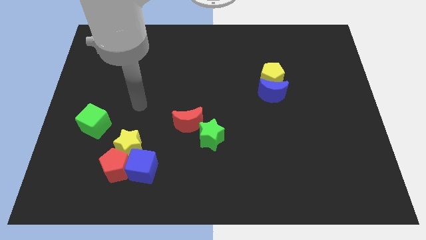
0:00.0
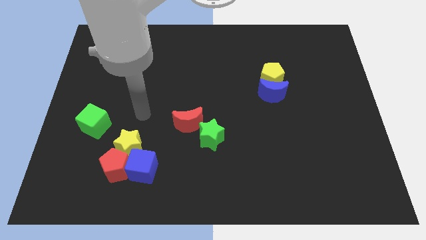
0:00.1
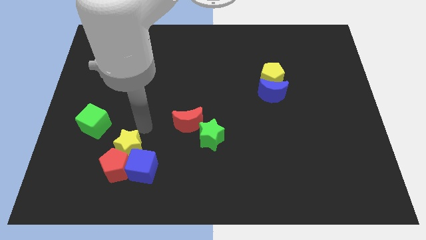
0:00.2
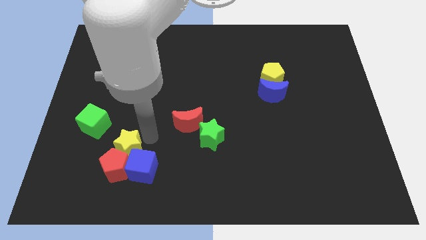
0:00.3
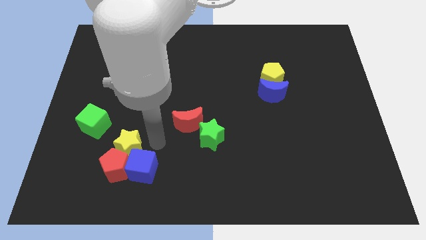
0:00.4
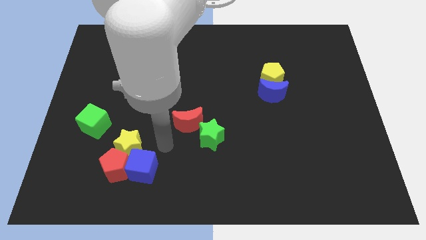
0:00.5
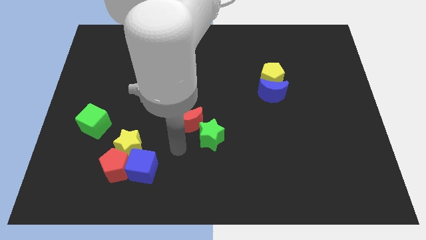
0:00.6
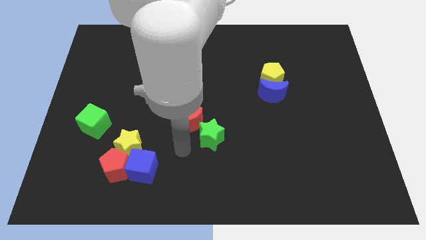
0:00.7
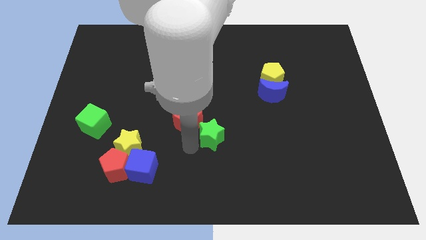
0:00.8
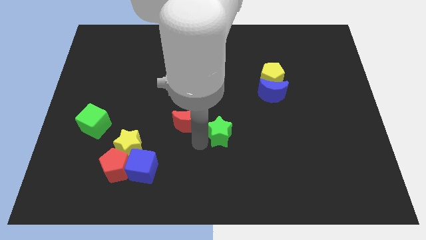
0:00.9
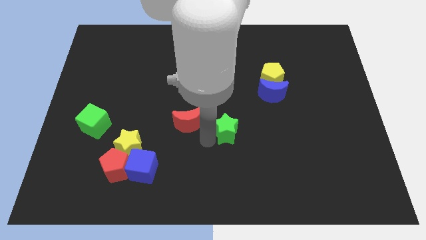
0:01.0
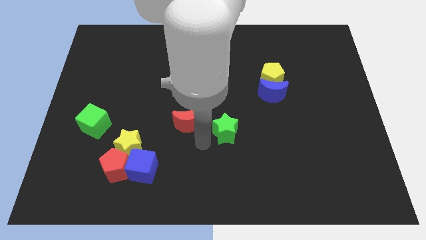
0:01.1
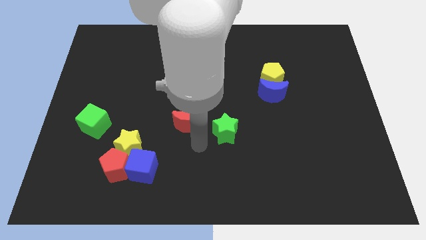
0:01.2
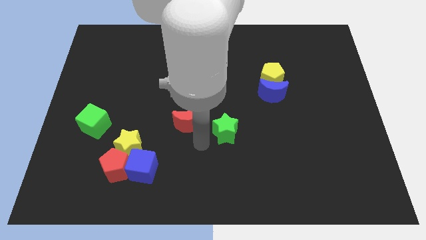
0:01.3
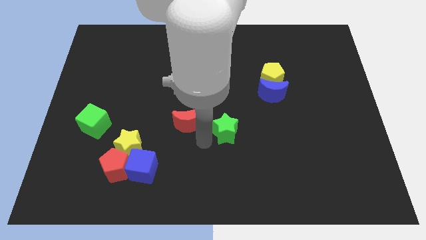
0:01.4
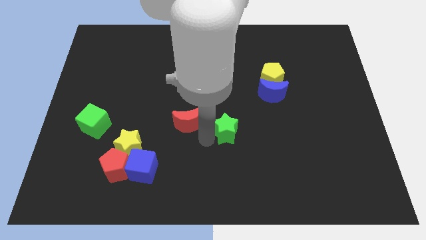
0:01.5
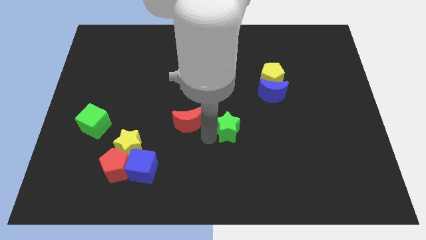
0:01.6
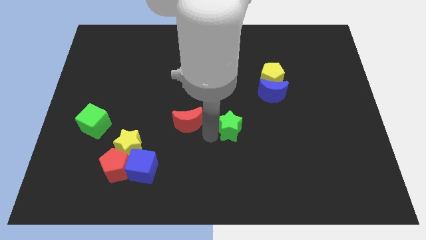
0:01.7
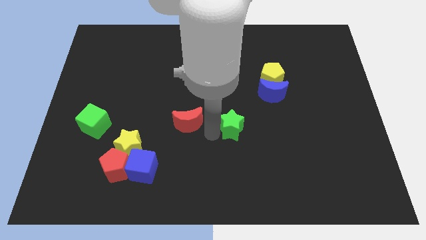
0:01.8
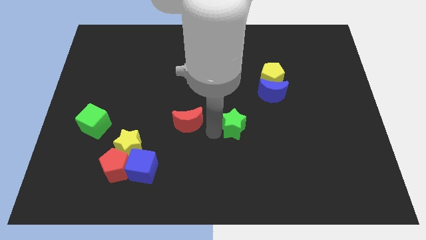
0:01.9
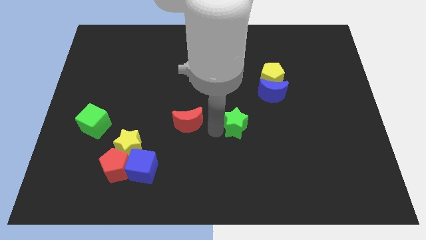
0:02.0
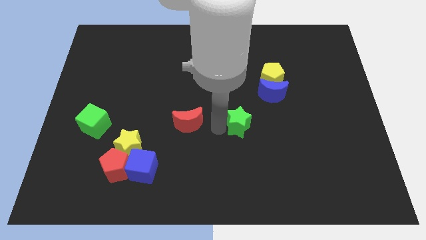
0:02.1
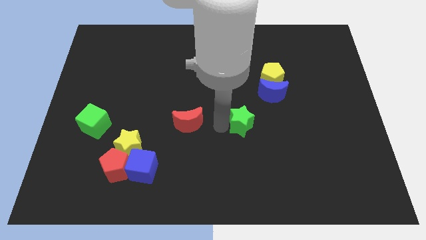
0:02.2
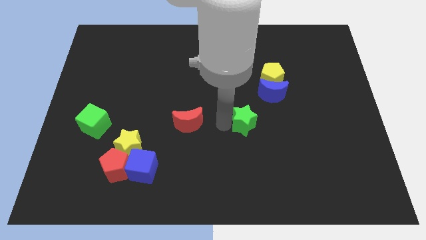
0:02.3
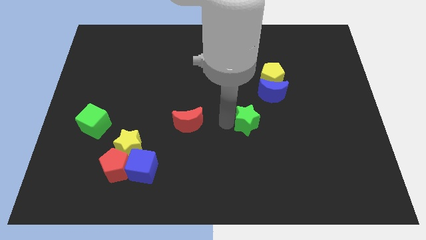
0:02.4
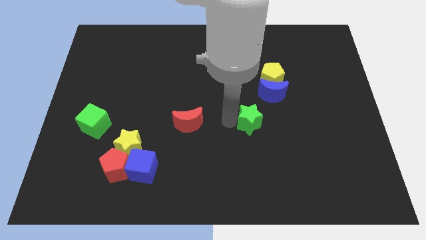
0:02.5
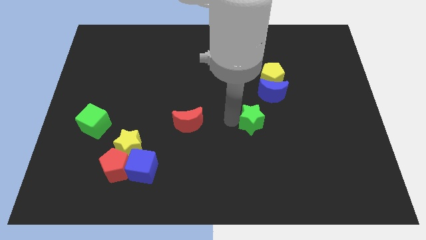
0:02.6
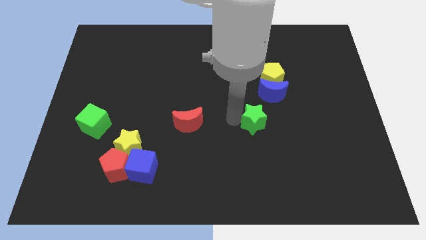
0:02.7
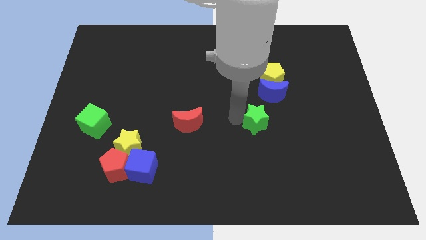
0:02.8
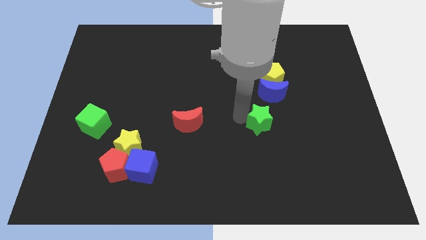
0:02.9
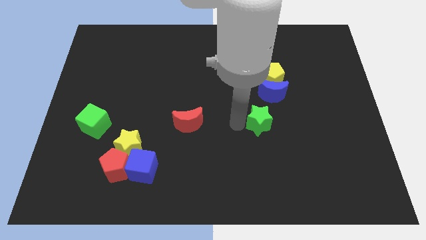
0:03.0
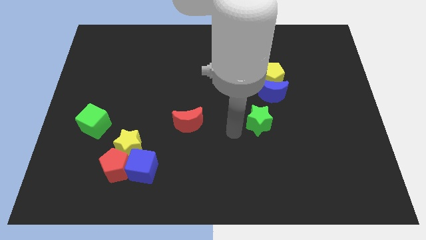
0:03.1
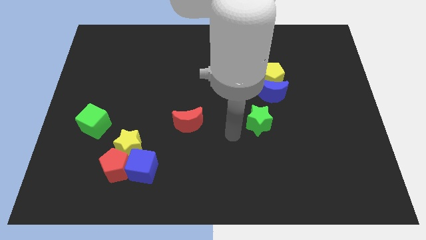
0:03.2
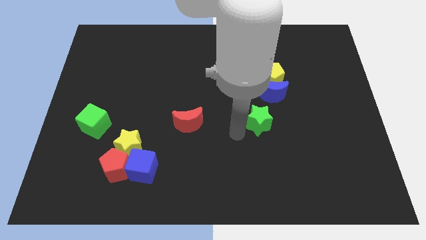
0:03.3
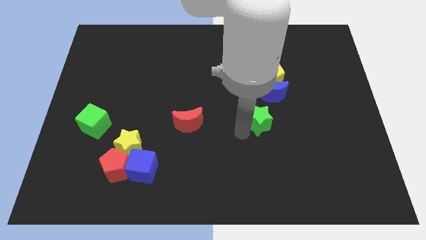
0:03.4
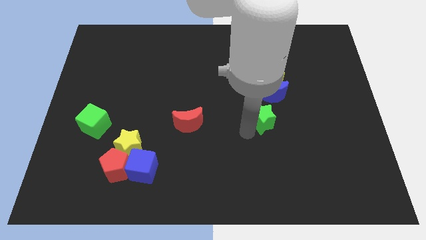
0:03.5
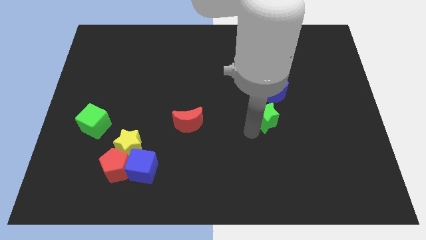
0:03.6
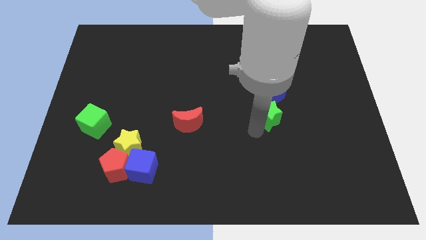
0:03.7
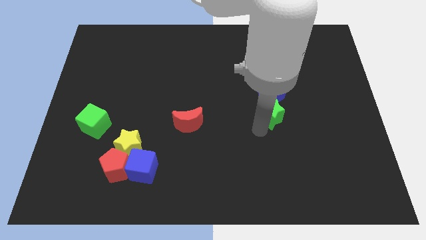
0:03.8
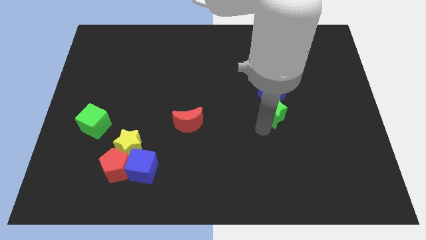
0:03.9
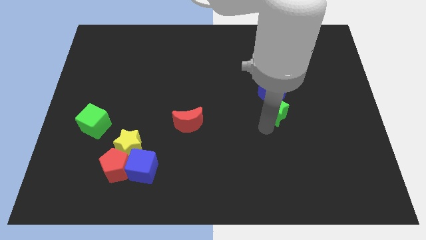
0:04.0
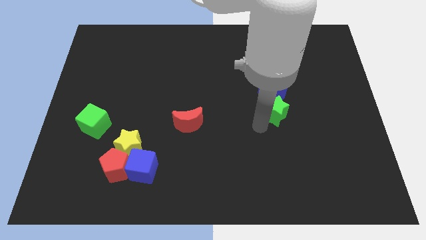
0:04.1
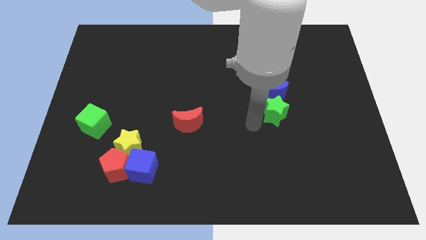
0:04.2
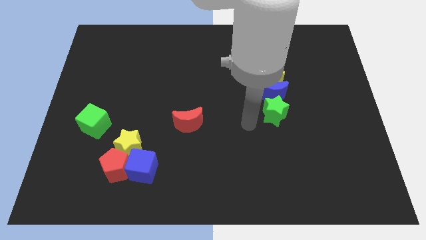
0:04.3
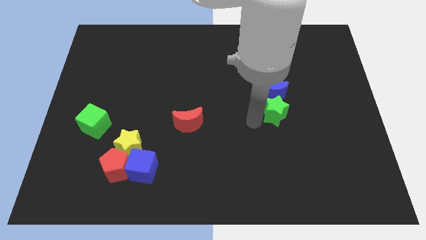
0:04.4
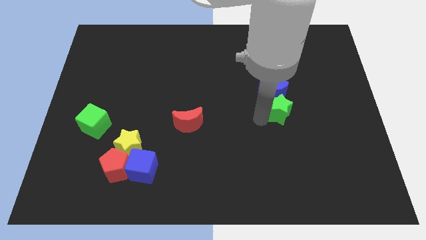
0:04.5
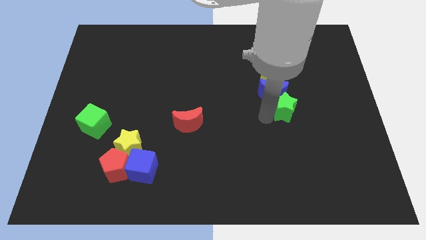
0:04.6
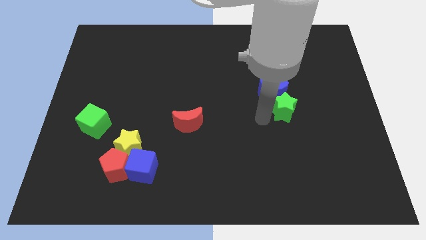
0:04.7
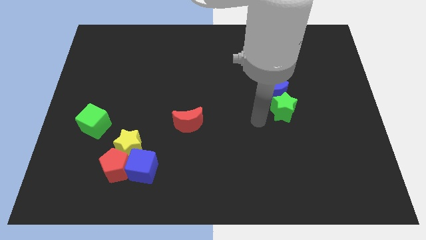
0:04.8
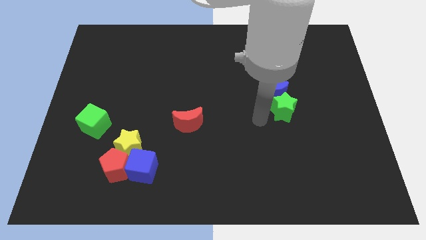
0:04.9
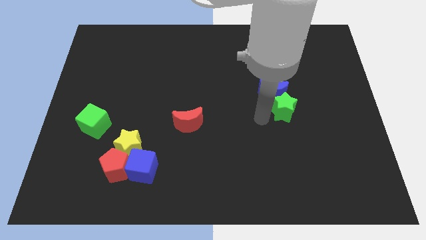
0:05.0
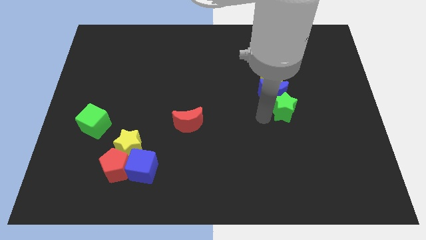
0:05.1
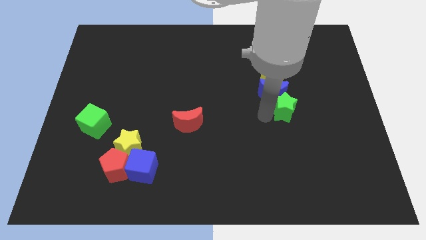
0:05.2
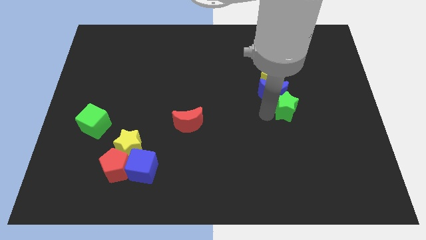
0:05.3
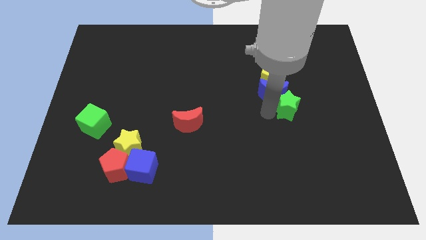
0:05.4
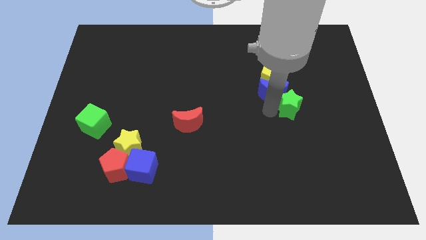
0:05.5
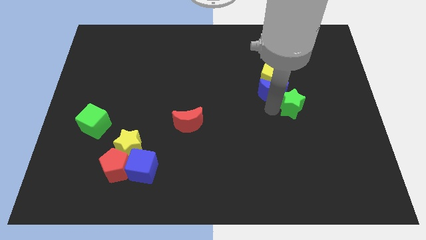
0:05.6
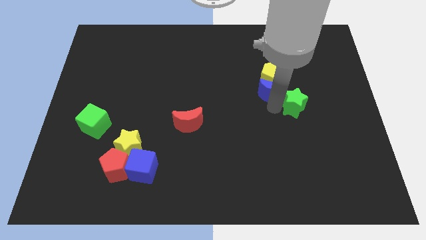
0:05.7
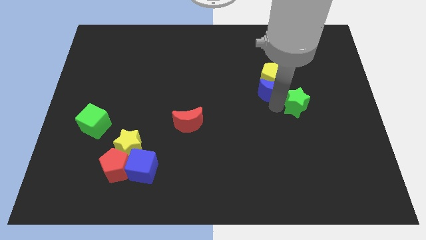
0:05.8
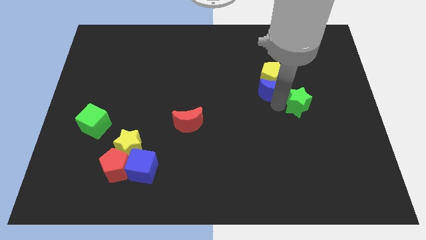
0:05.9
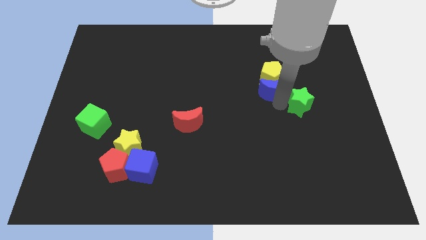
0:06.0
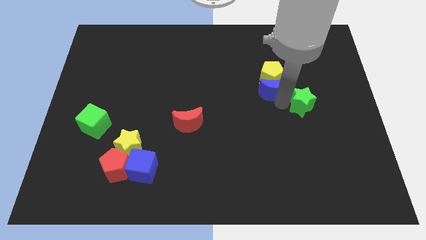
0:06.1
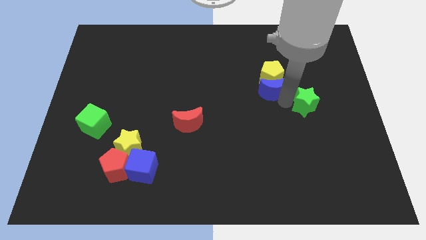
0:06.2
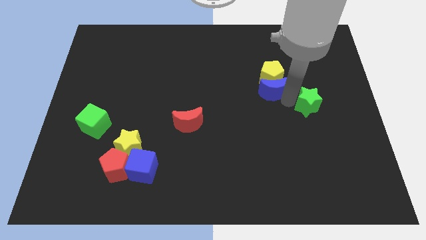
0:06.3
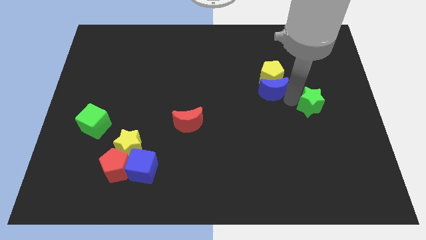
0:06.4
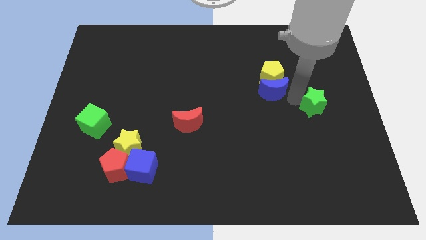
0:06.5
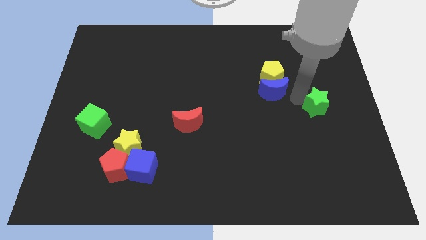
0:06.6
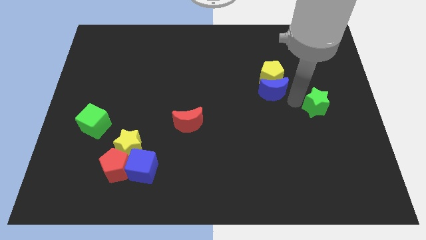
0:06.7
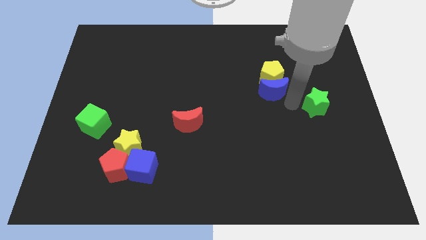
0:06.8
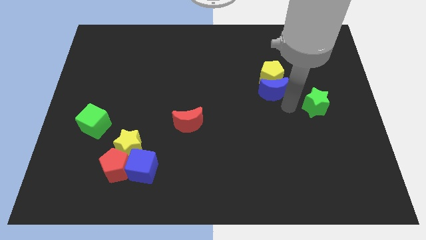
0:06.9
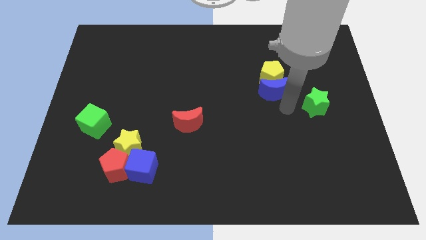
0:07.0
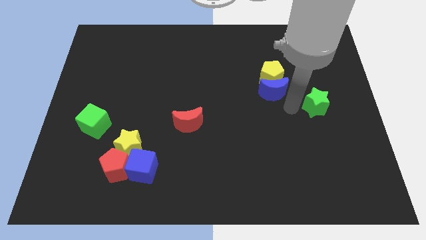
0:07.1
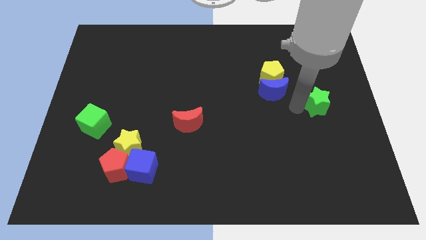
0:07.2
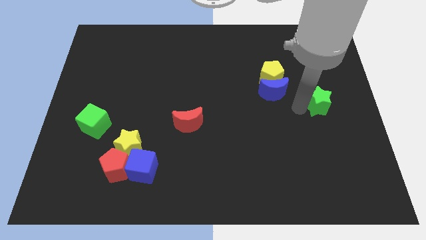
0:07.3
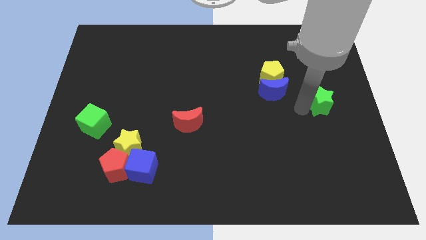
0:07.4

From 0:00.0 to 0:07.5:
put the green star to the right side of the board

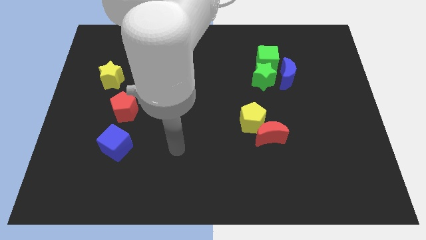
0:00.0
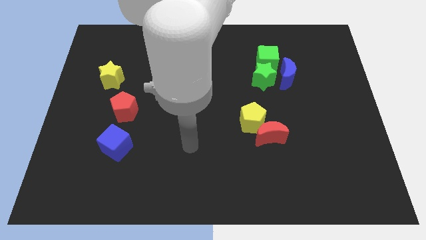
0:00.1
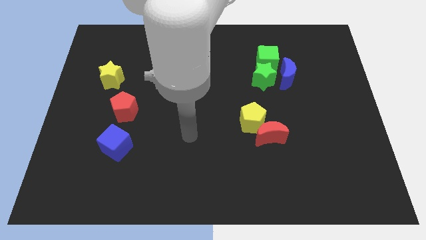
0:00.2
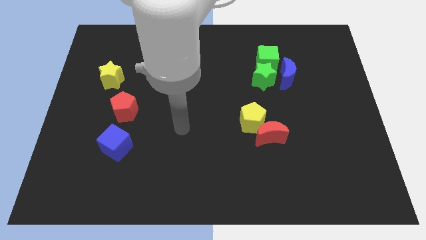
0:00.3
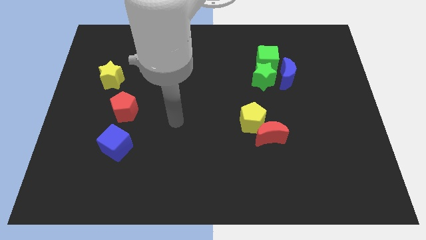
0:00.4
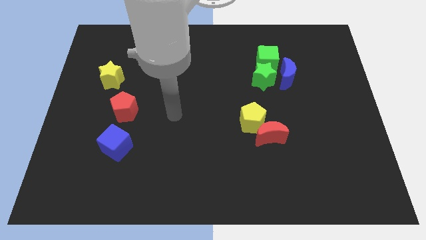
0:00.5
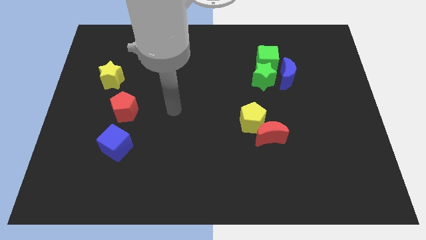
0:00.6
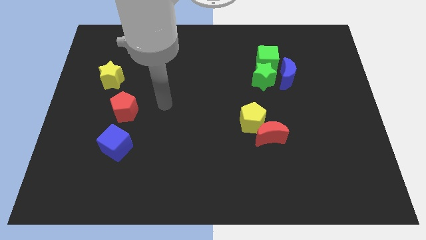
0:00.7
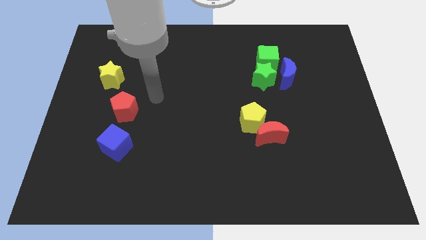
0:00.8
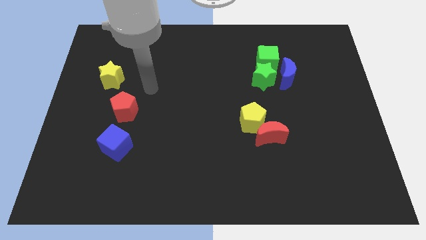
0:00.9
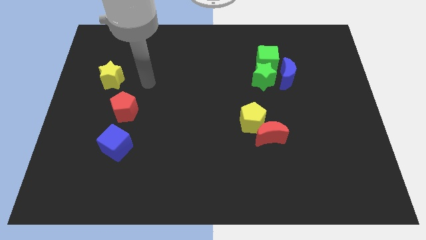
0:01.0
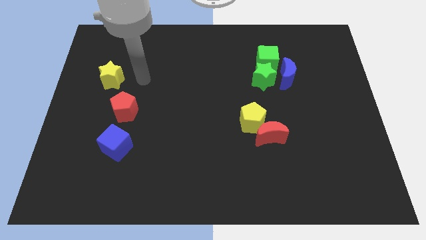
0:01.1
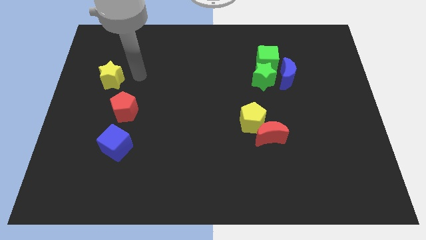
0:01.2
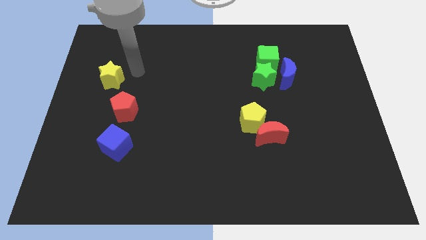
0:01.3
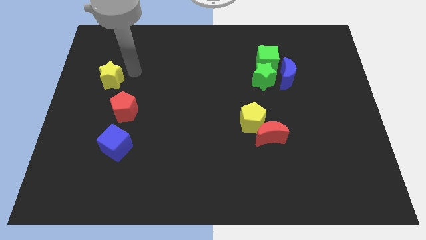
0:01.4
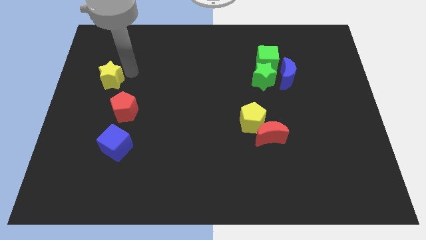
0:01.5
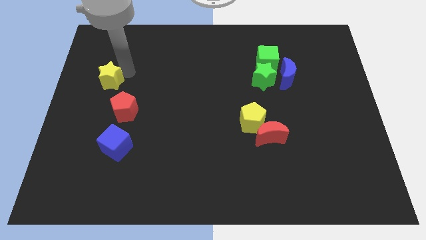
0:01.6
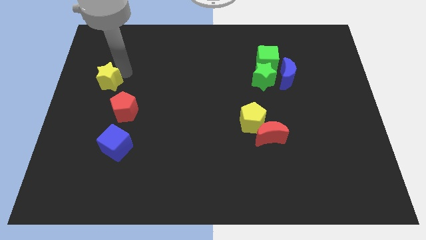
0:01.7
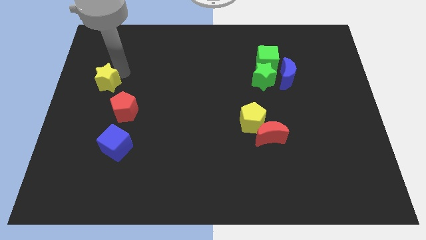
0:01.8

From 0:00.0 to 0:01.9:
put the yellow star to the center left
